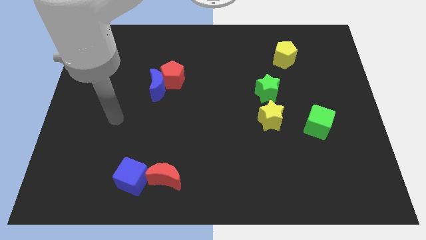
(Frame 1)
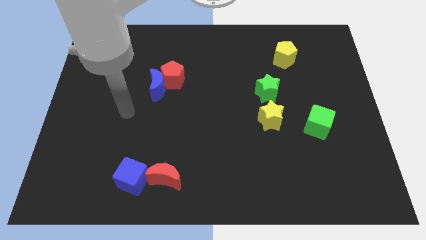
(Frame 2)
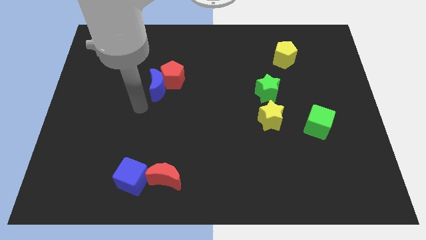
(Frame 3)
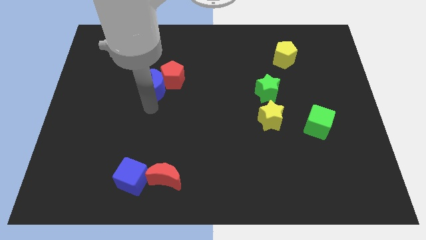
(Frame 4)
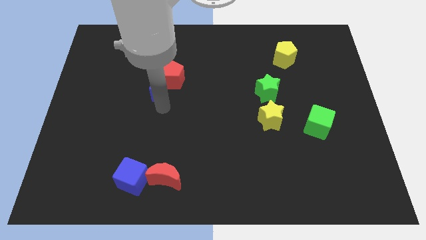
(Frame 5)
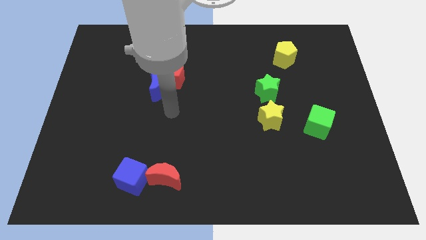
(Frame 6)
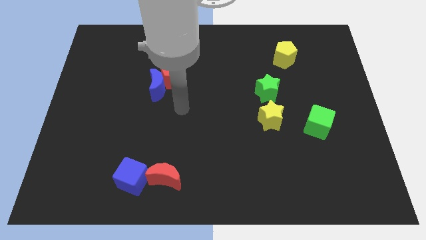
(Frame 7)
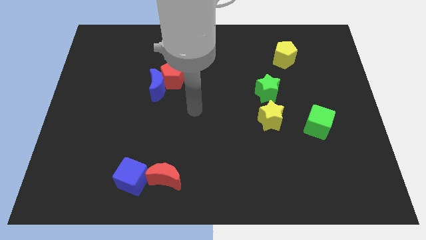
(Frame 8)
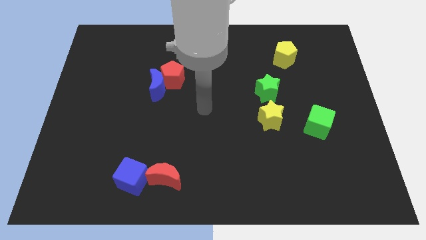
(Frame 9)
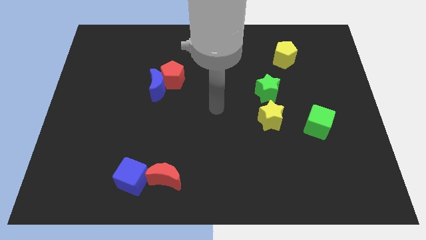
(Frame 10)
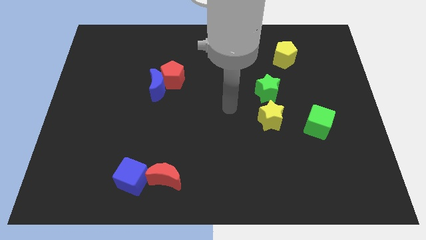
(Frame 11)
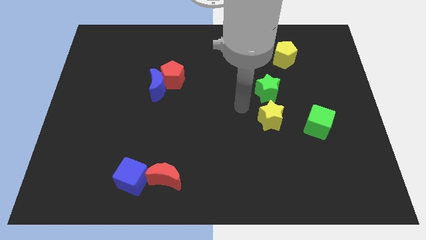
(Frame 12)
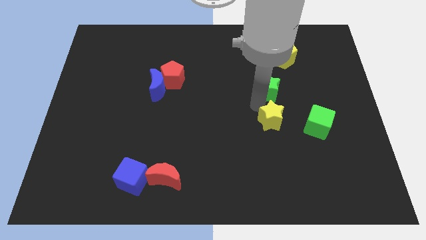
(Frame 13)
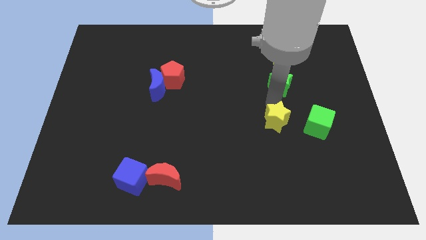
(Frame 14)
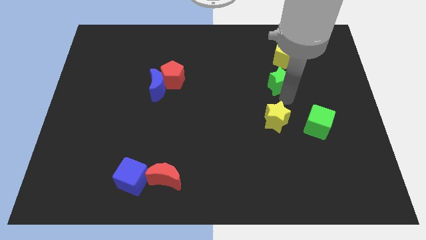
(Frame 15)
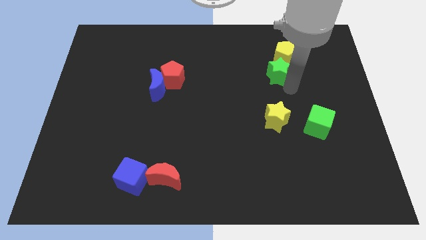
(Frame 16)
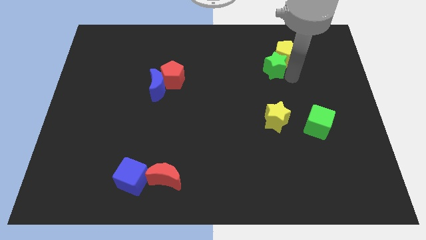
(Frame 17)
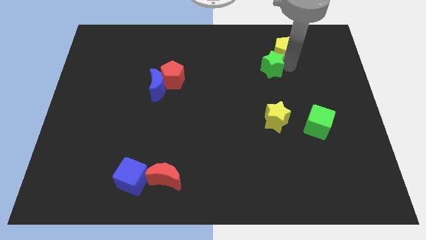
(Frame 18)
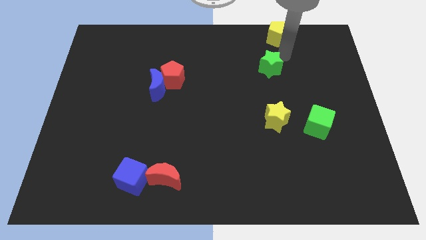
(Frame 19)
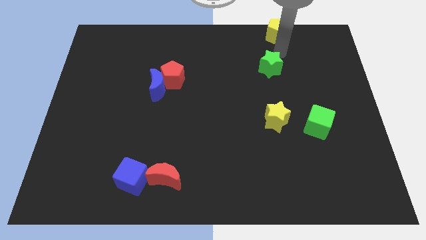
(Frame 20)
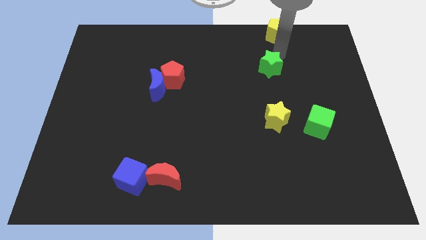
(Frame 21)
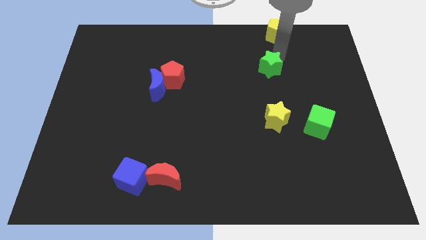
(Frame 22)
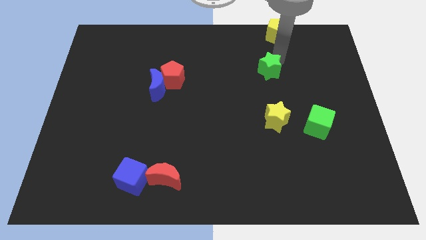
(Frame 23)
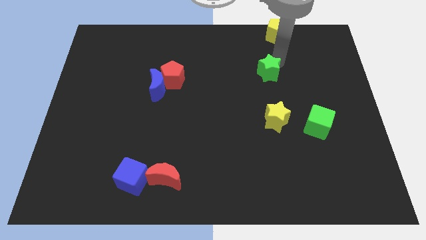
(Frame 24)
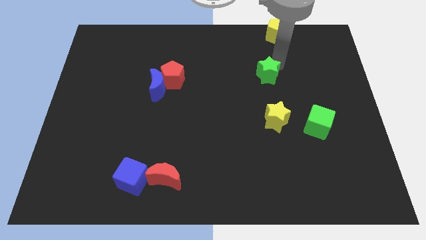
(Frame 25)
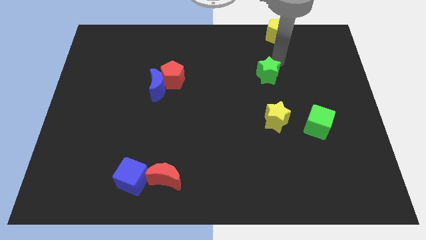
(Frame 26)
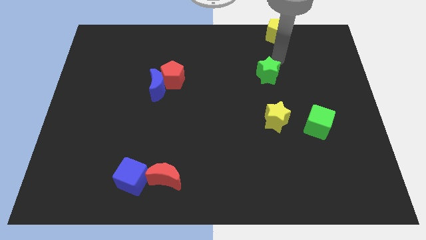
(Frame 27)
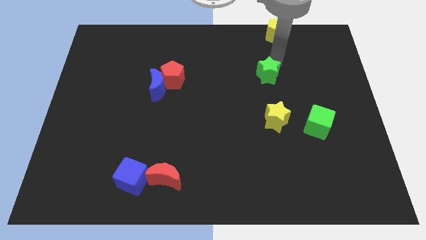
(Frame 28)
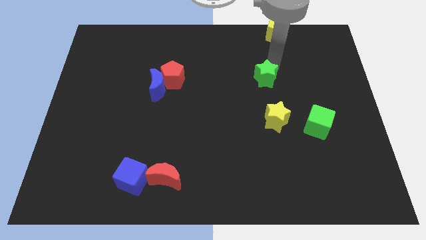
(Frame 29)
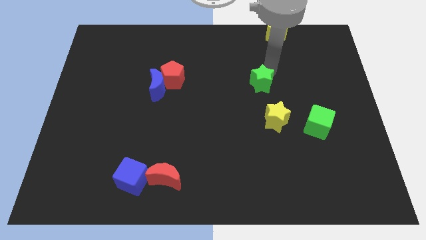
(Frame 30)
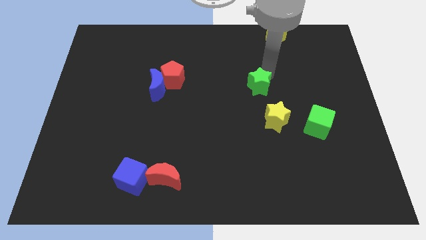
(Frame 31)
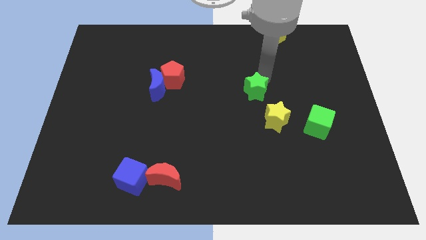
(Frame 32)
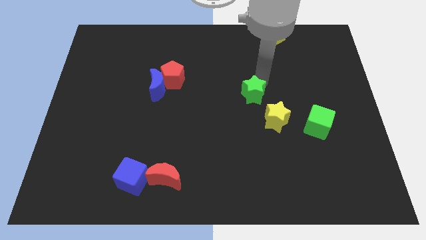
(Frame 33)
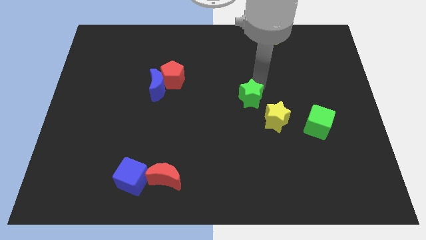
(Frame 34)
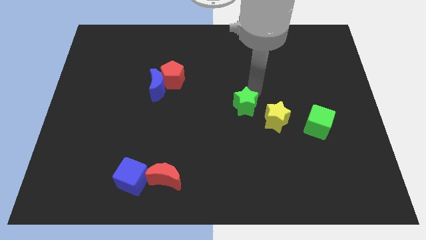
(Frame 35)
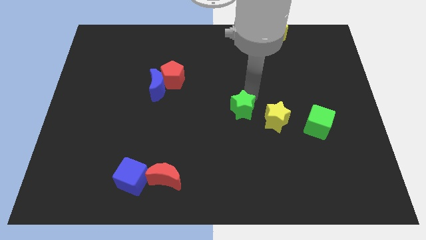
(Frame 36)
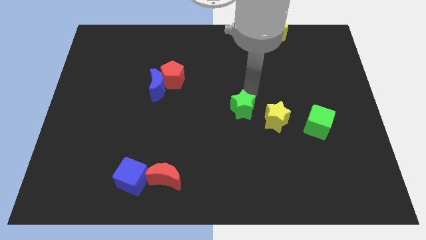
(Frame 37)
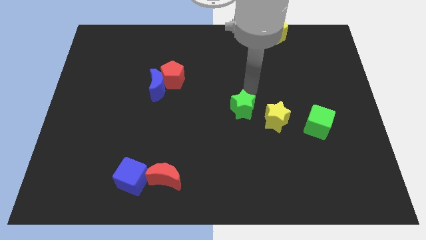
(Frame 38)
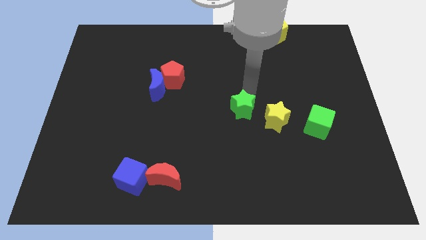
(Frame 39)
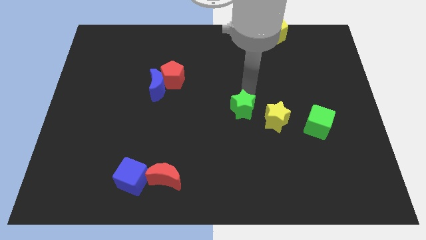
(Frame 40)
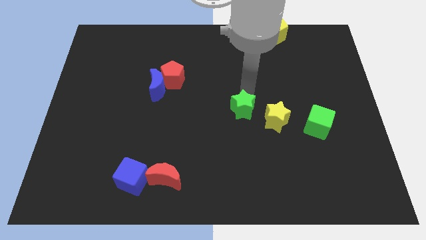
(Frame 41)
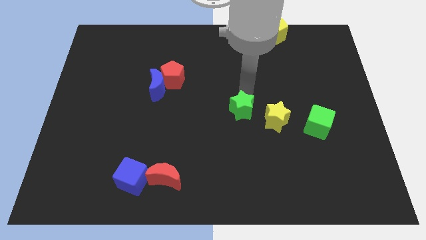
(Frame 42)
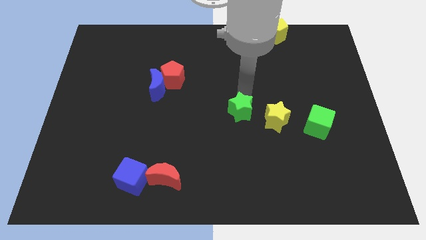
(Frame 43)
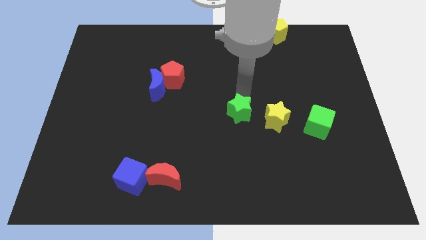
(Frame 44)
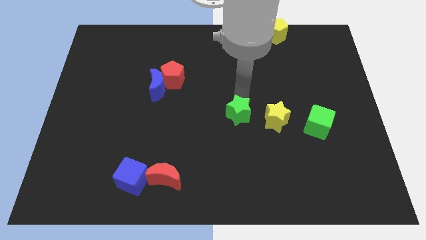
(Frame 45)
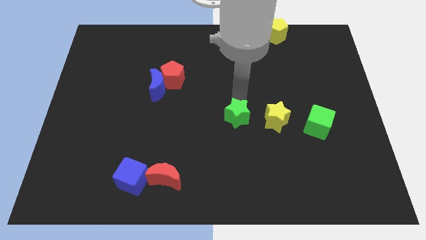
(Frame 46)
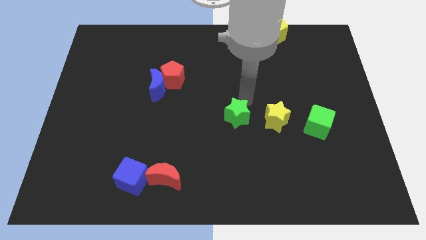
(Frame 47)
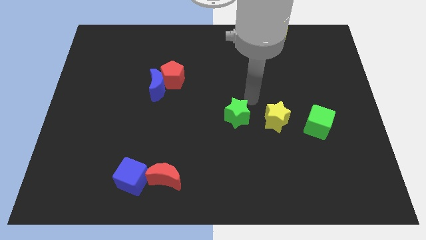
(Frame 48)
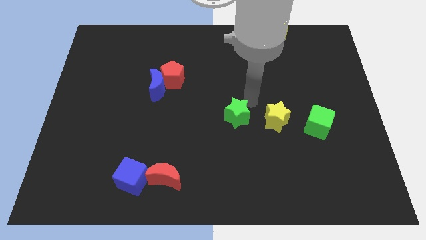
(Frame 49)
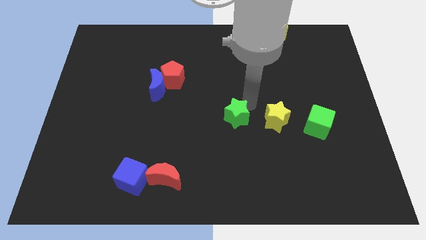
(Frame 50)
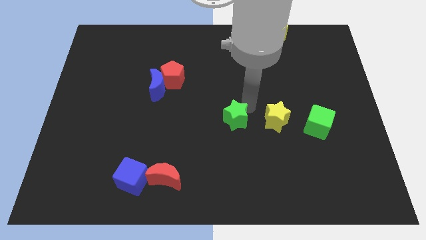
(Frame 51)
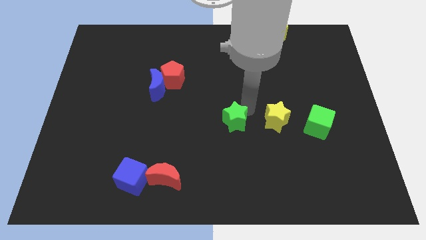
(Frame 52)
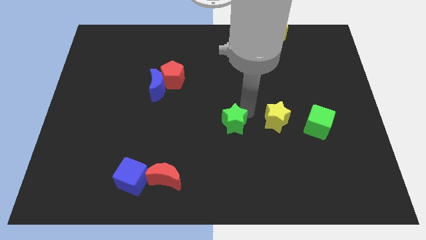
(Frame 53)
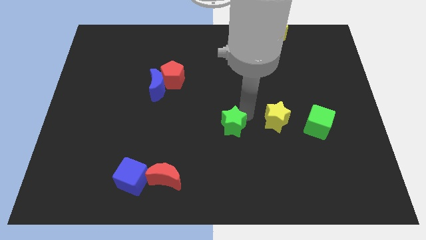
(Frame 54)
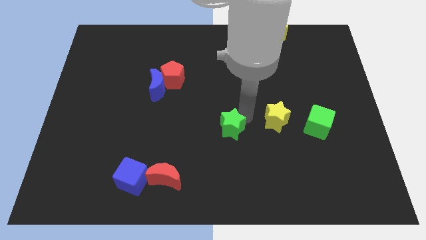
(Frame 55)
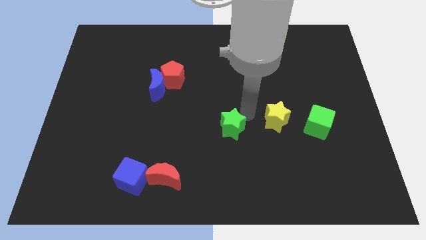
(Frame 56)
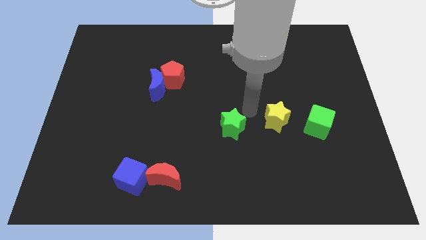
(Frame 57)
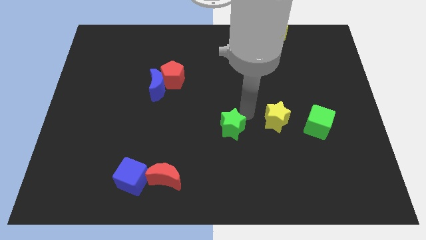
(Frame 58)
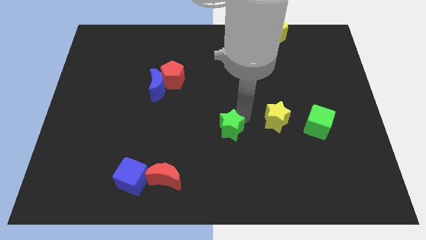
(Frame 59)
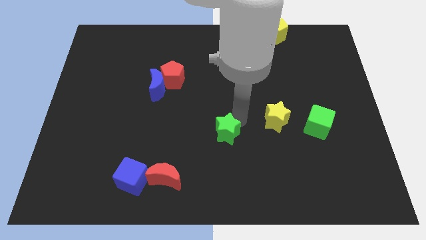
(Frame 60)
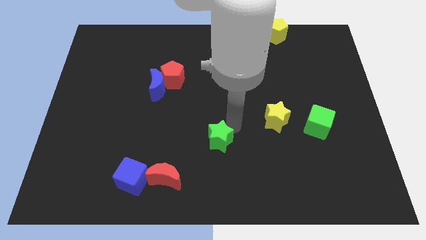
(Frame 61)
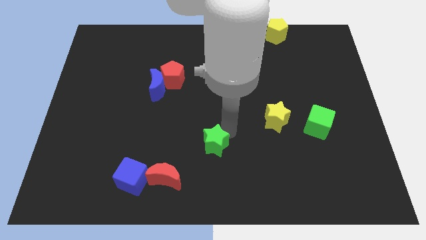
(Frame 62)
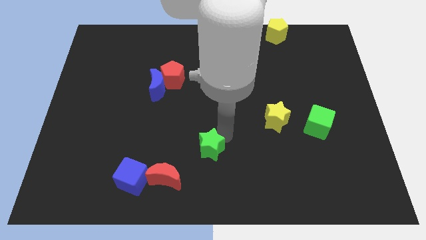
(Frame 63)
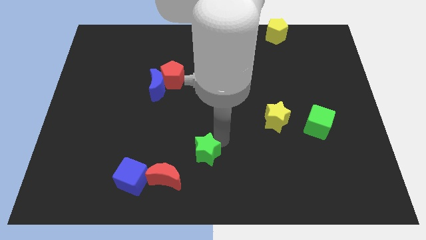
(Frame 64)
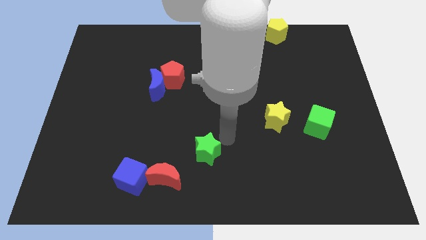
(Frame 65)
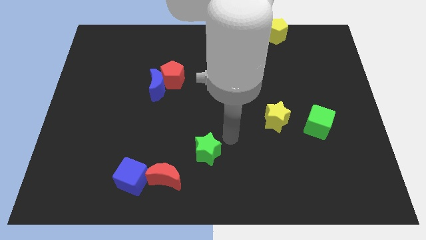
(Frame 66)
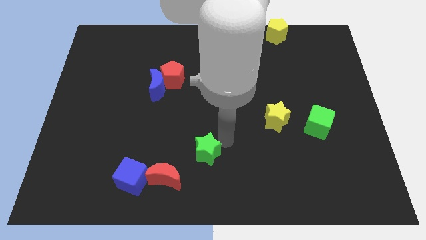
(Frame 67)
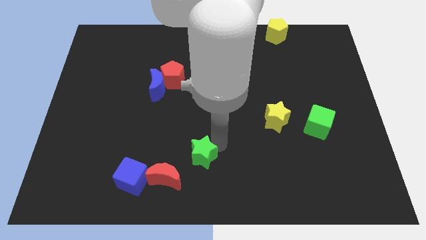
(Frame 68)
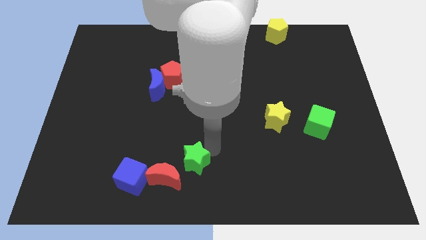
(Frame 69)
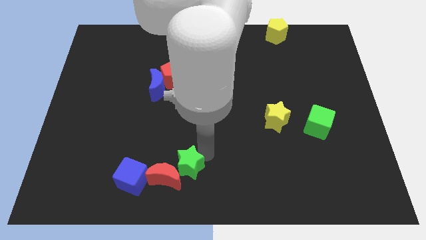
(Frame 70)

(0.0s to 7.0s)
slide the green star to the red moon

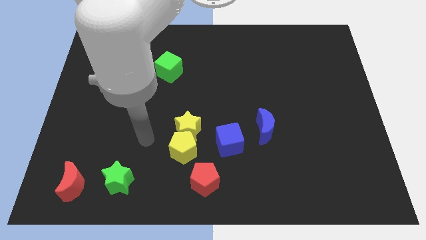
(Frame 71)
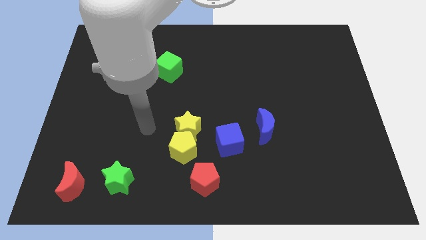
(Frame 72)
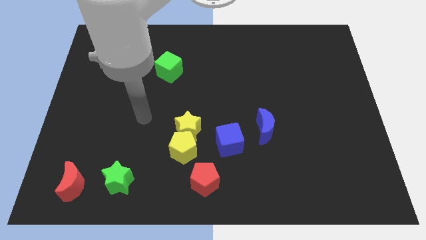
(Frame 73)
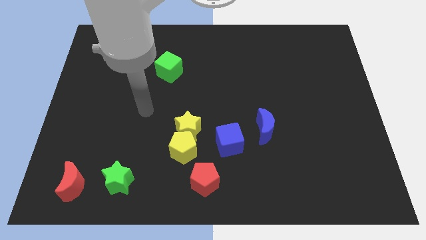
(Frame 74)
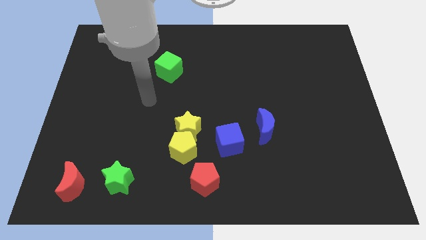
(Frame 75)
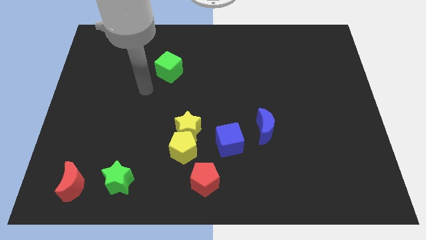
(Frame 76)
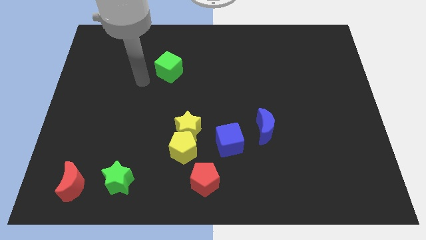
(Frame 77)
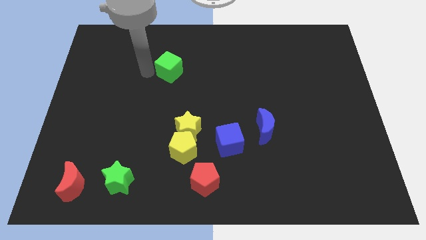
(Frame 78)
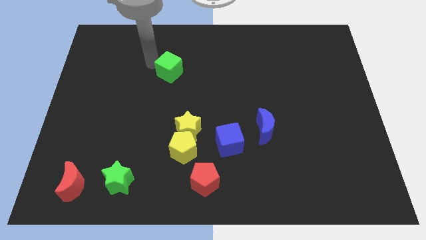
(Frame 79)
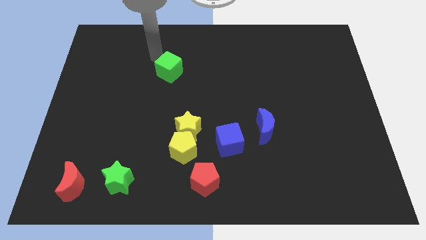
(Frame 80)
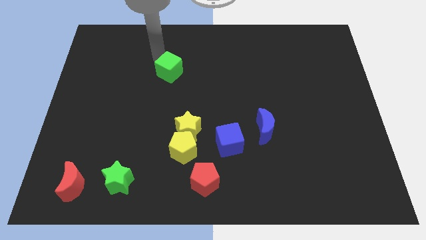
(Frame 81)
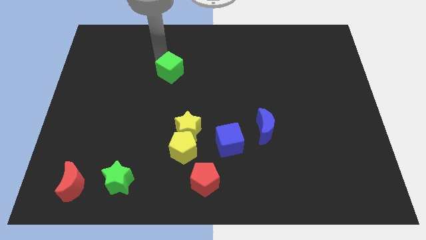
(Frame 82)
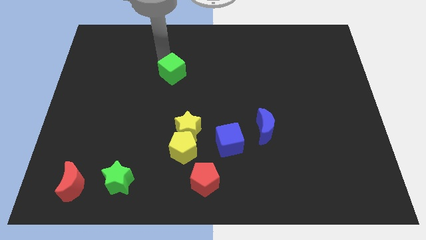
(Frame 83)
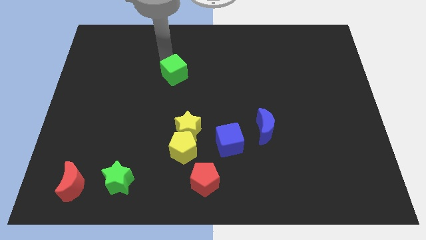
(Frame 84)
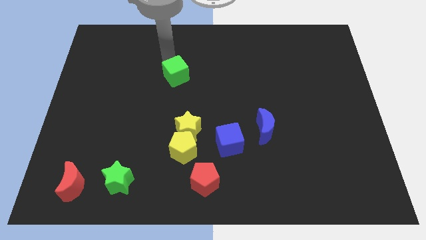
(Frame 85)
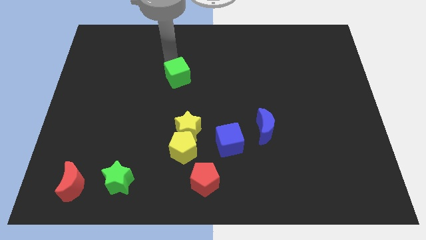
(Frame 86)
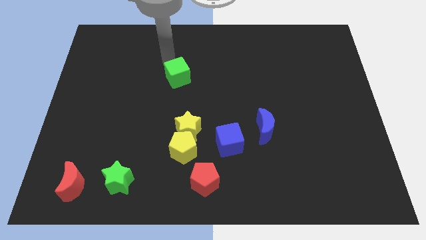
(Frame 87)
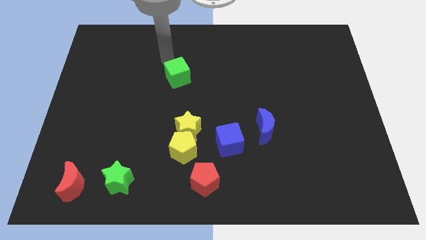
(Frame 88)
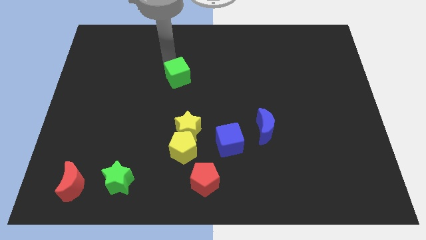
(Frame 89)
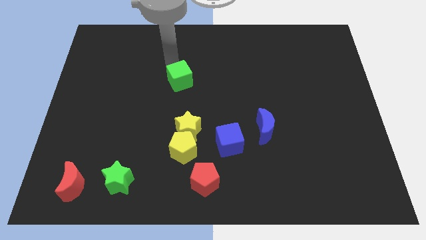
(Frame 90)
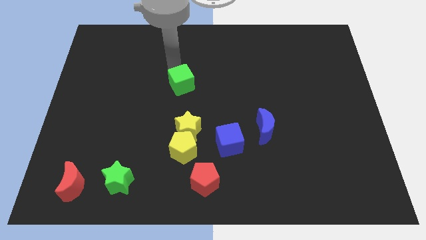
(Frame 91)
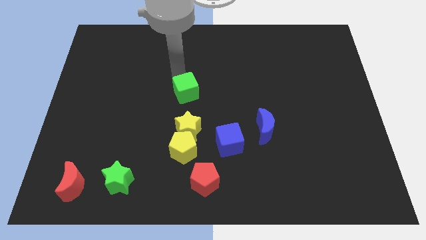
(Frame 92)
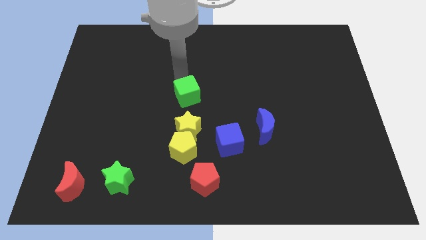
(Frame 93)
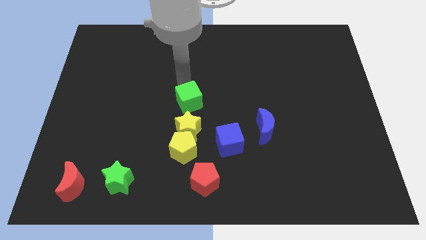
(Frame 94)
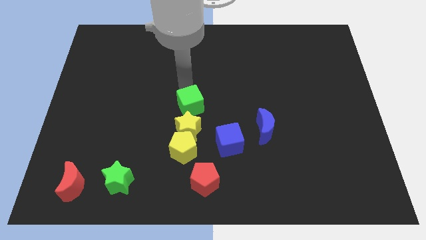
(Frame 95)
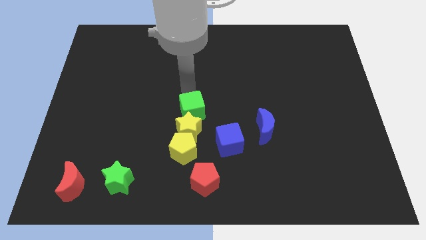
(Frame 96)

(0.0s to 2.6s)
push the green cube close to the yellow star
